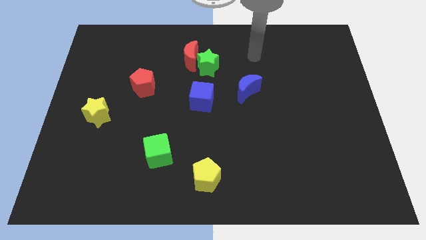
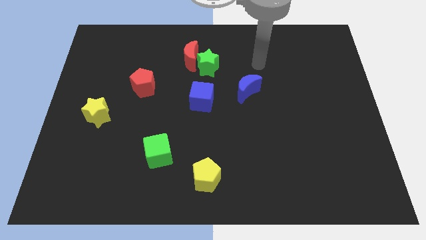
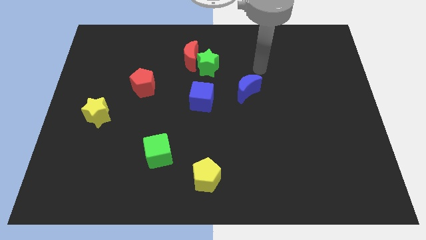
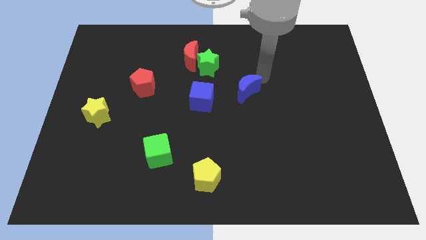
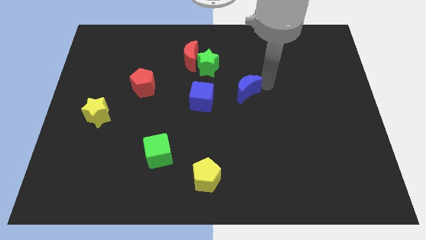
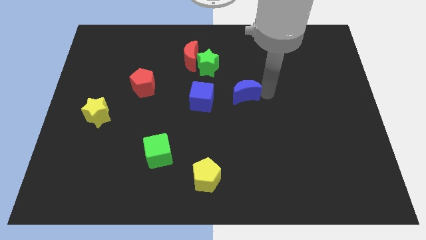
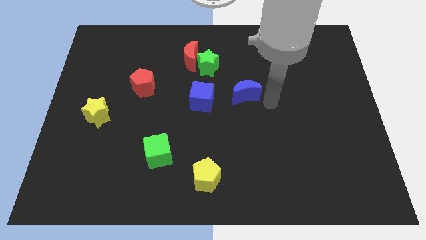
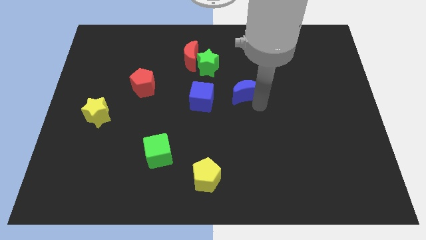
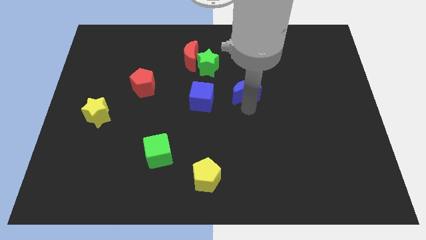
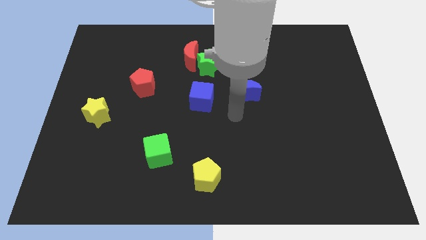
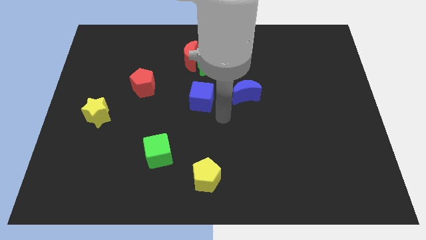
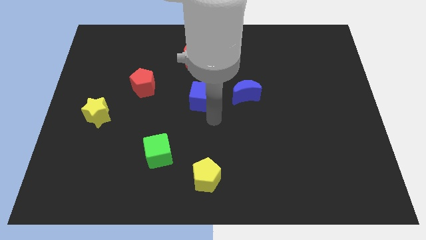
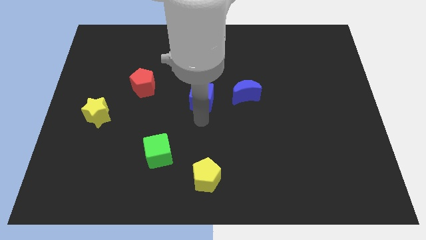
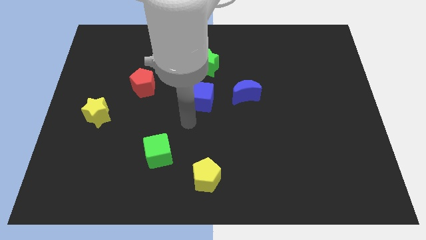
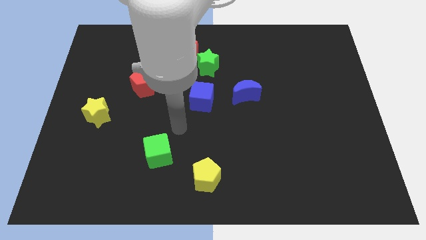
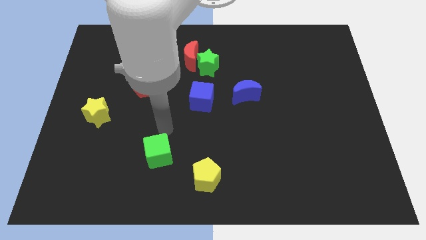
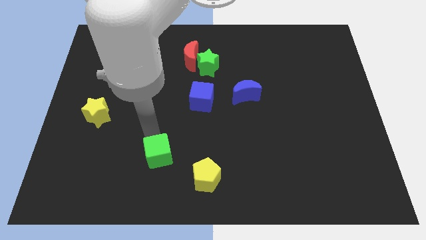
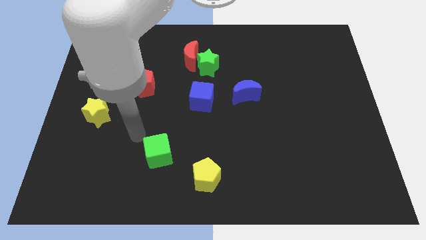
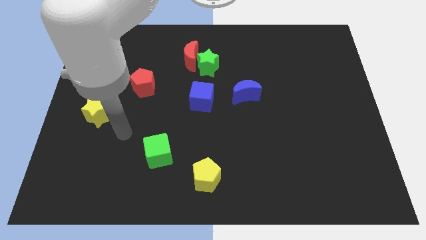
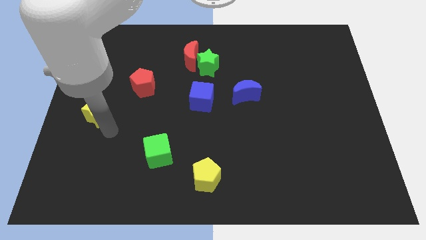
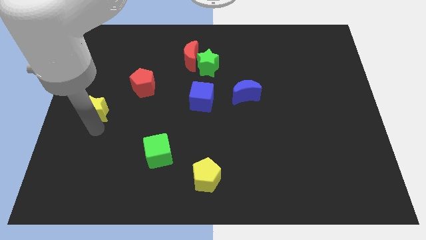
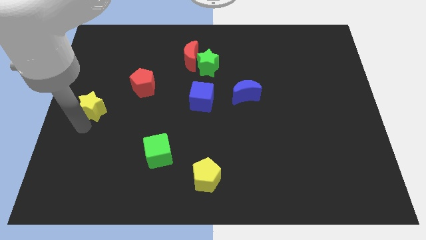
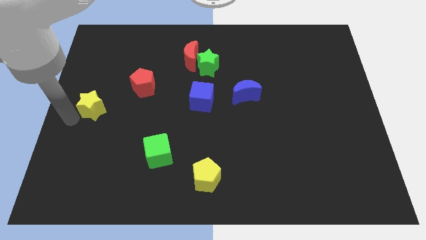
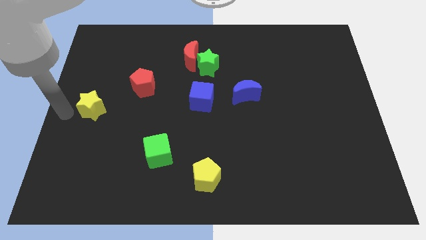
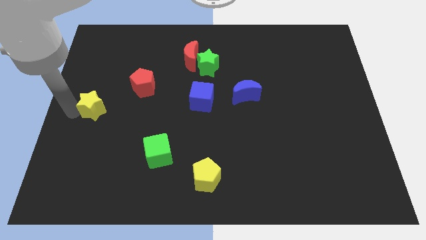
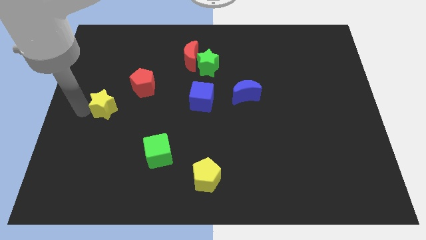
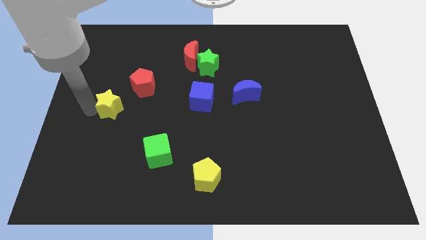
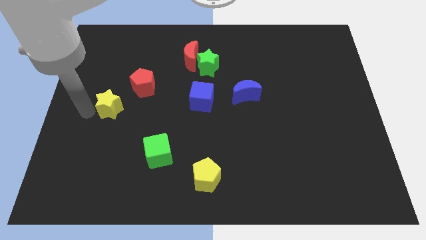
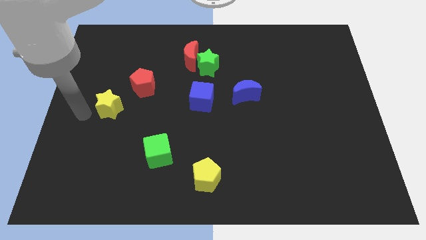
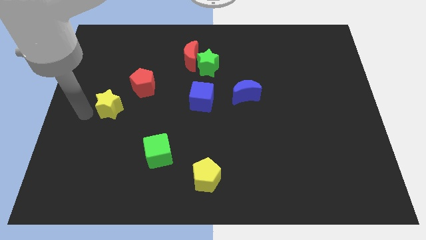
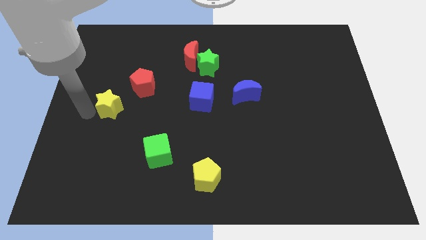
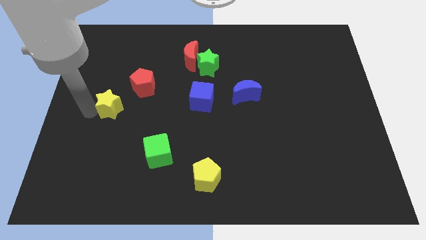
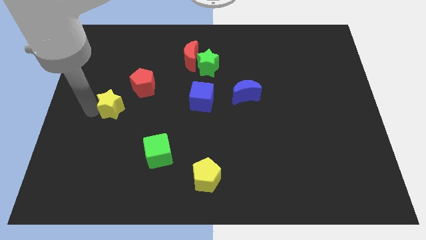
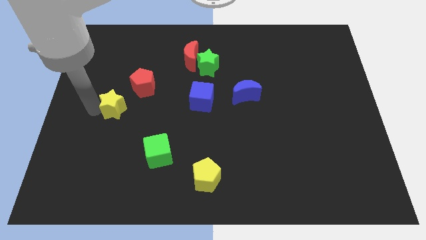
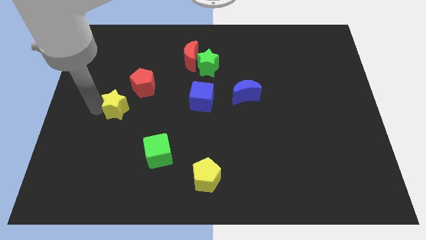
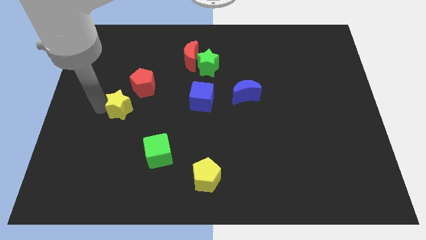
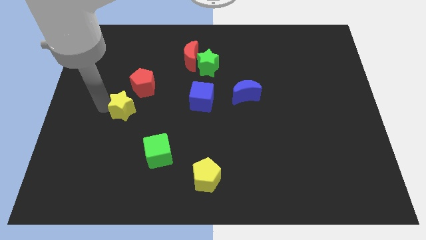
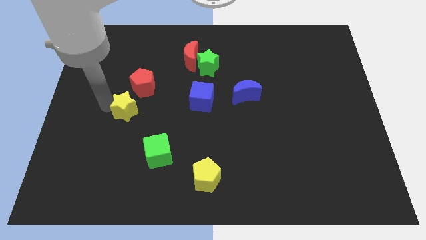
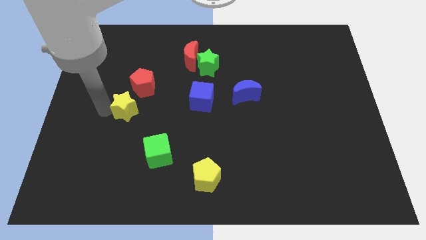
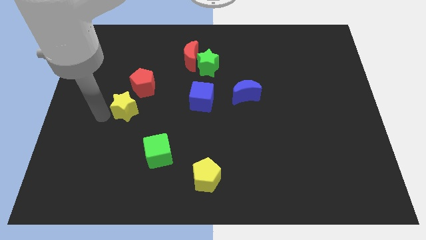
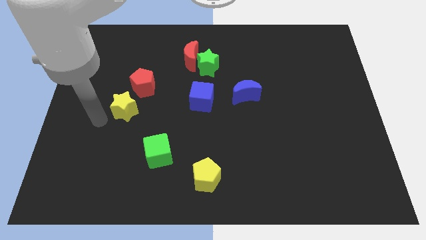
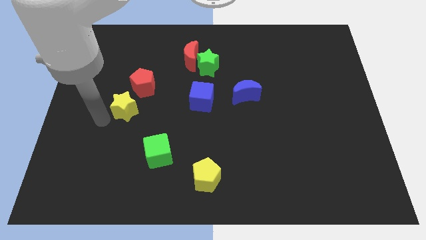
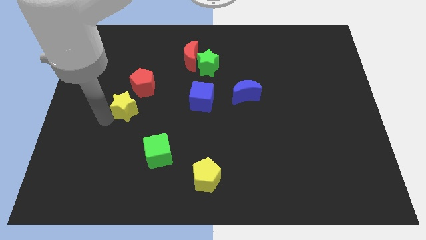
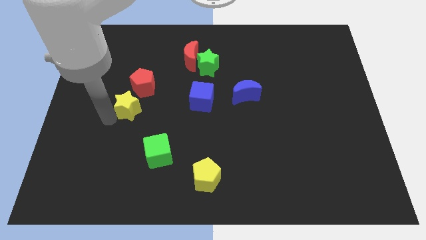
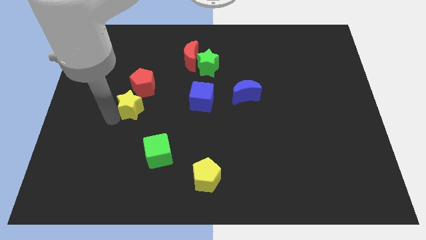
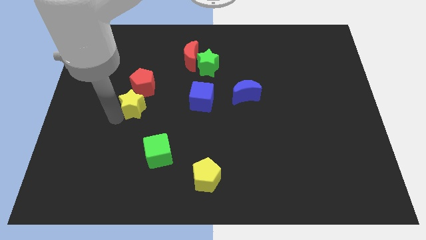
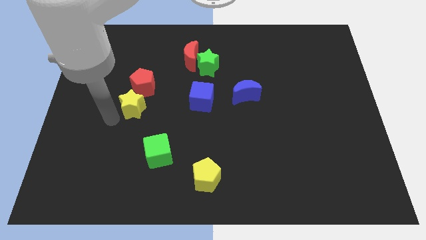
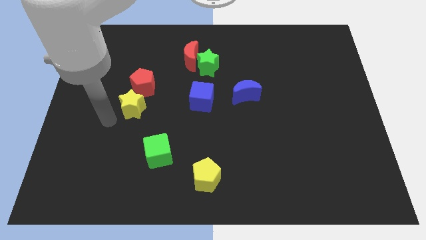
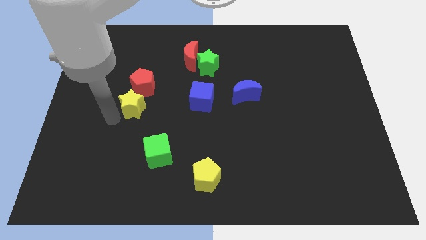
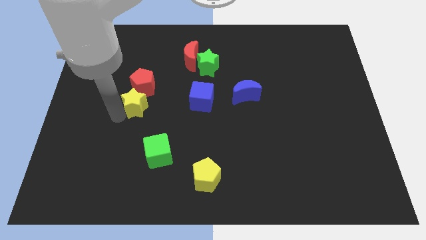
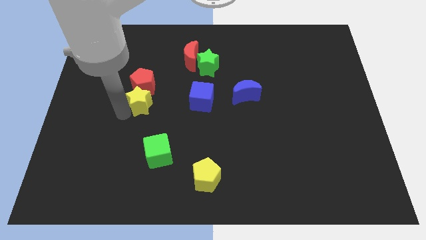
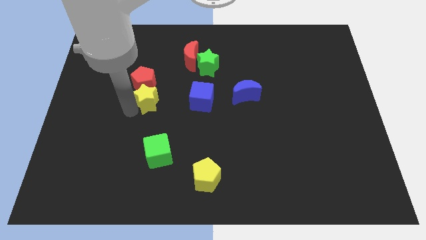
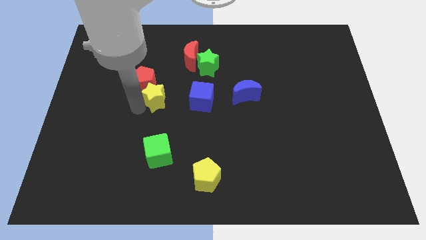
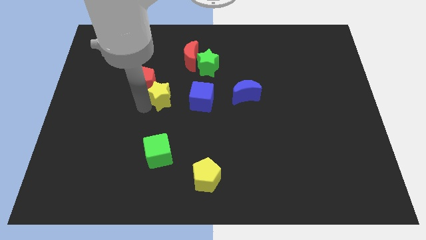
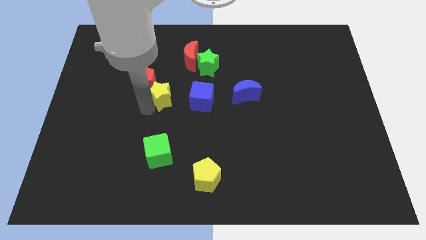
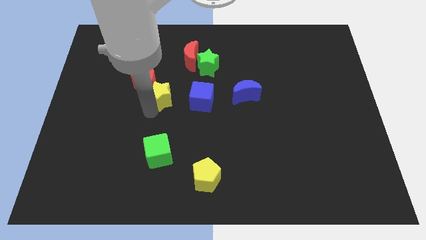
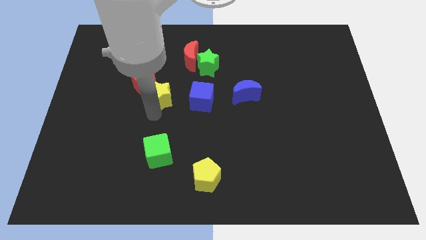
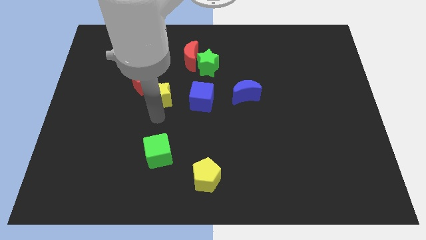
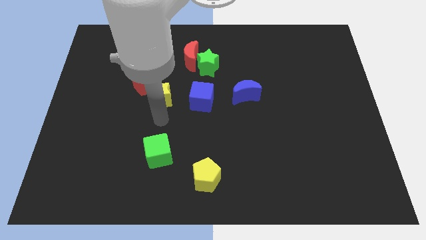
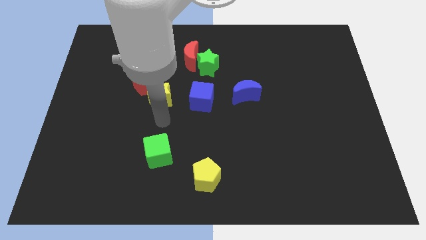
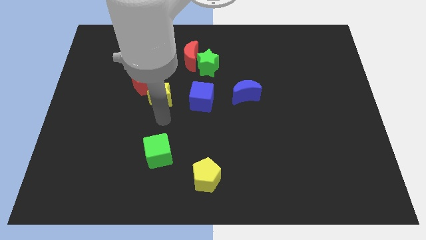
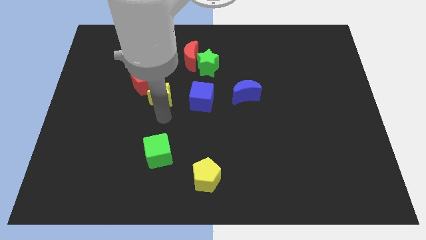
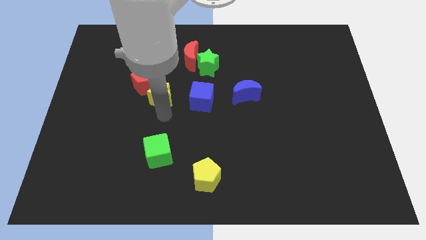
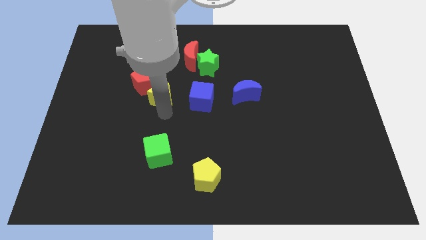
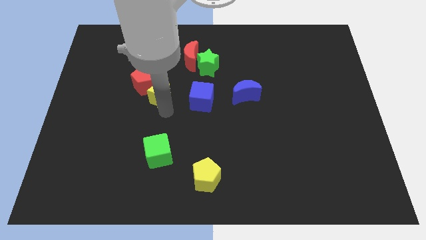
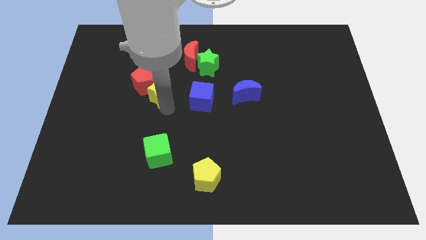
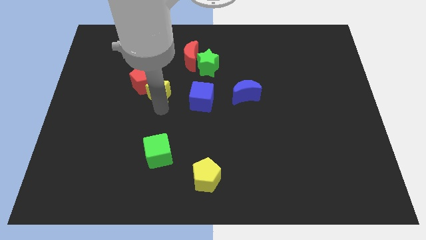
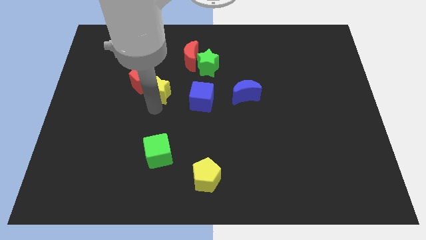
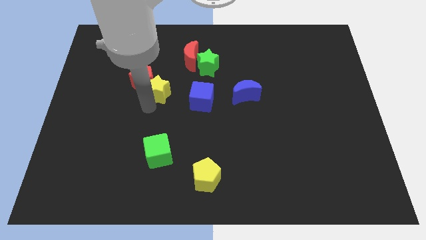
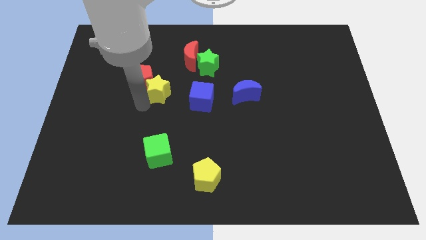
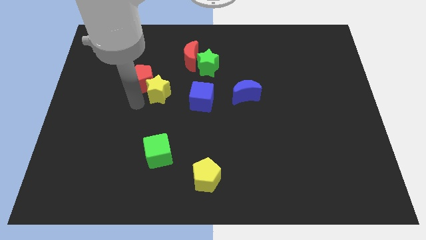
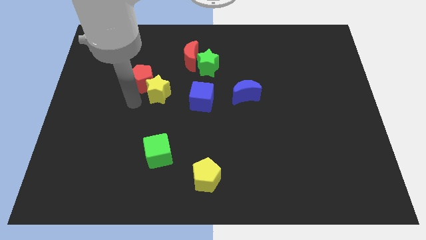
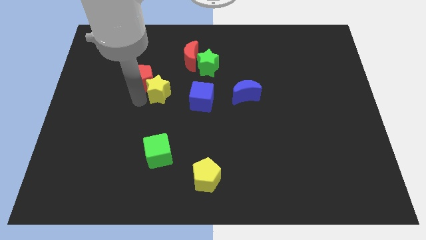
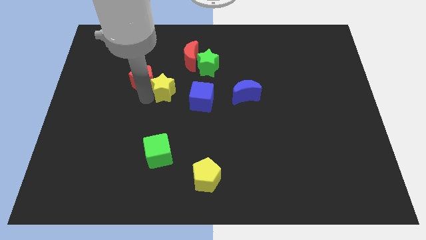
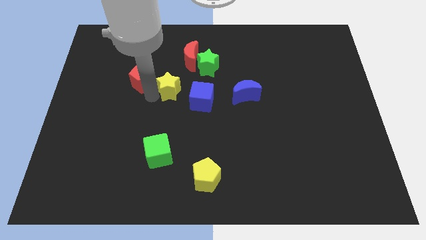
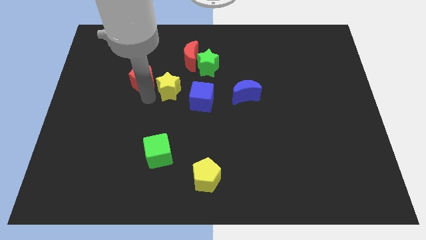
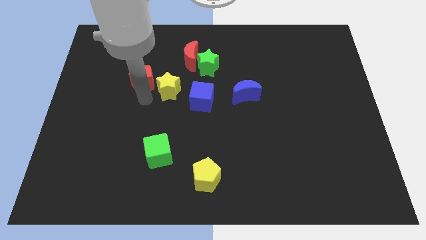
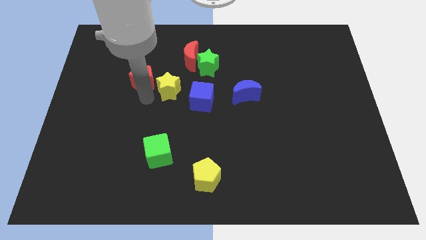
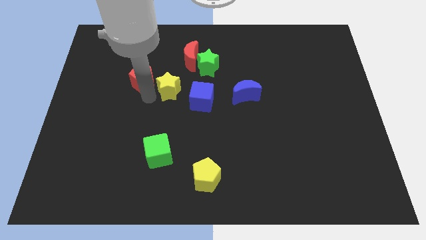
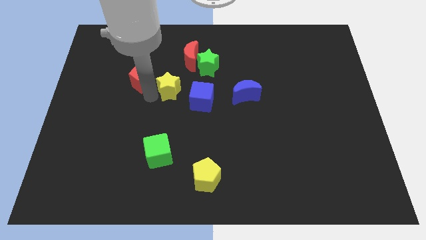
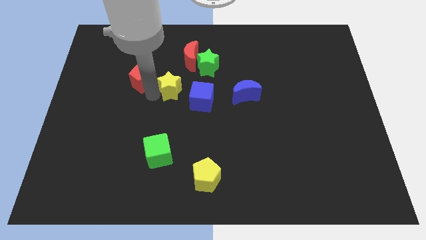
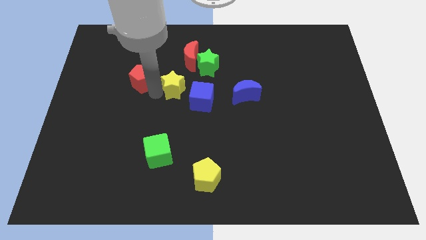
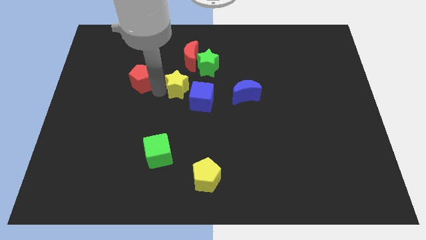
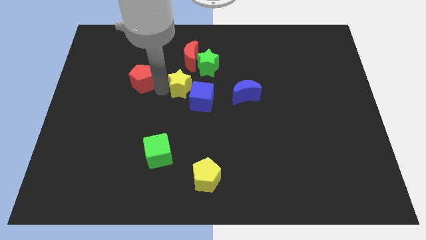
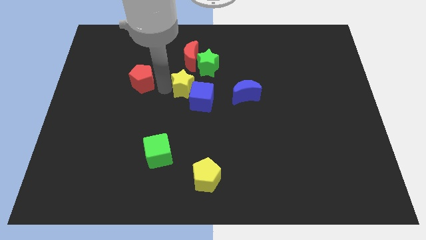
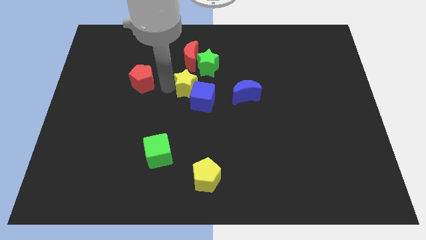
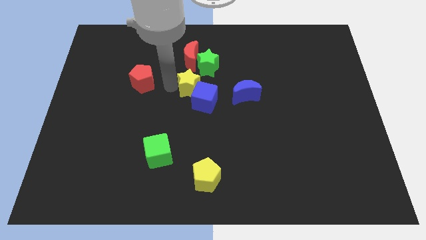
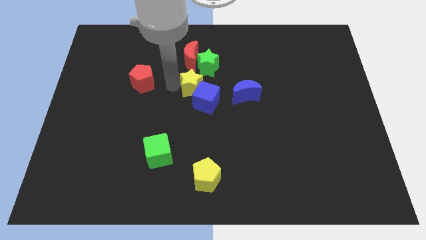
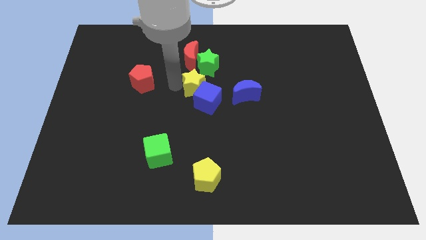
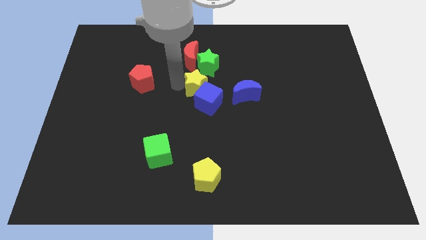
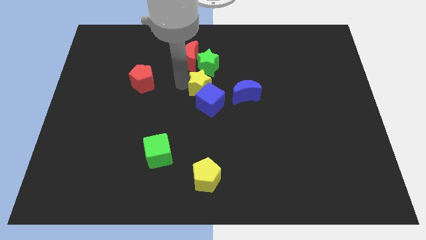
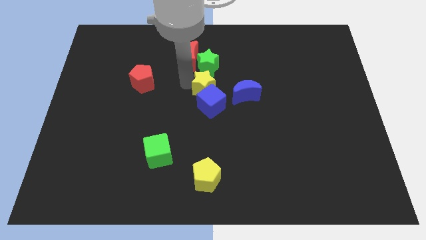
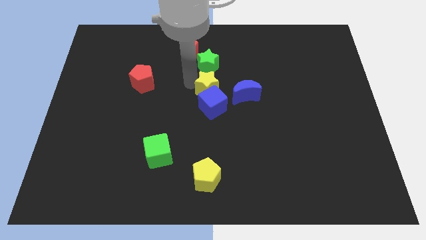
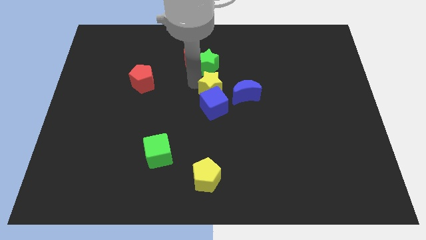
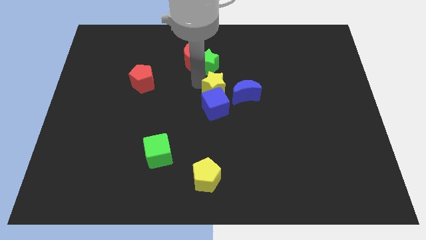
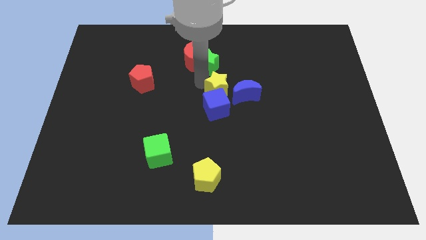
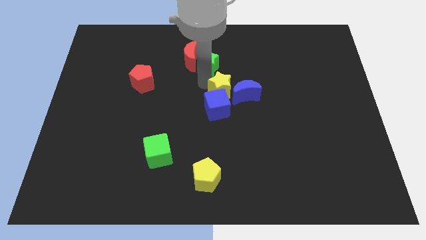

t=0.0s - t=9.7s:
slide the yellow star towards the blue moon
